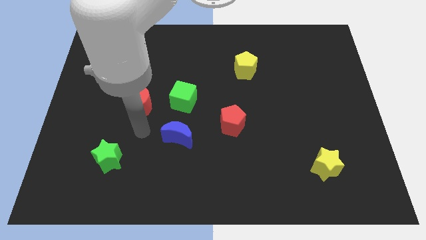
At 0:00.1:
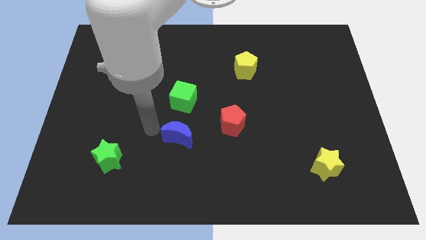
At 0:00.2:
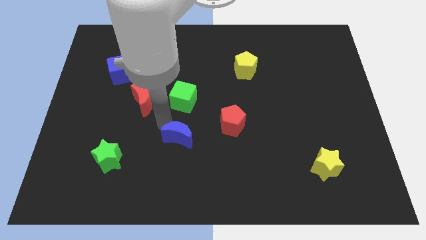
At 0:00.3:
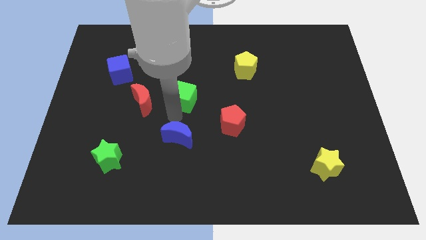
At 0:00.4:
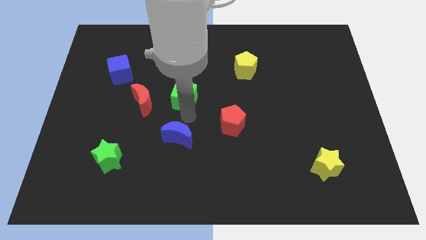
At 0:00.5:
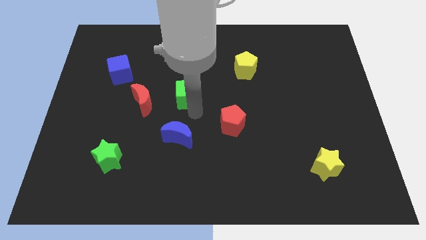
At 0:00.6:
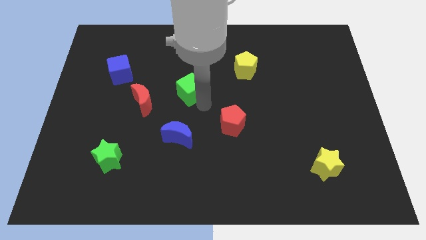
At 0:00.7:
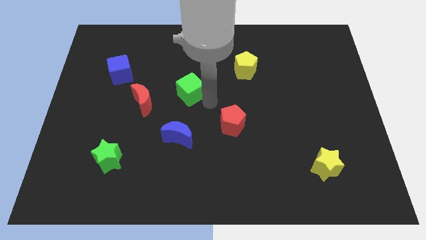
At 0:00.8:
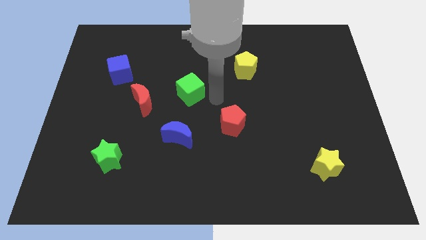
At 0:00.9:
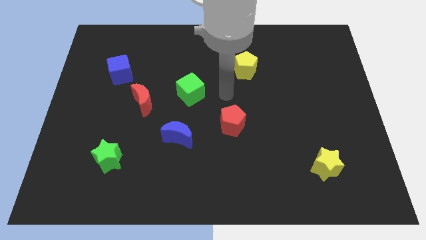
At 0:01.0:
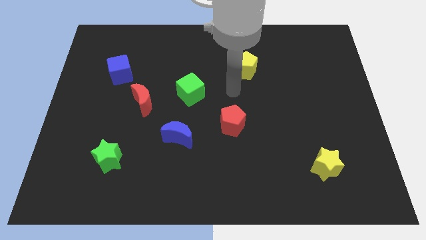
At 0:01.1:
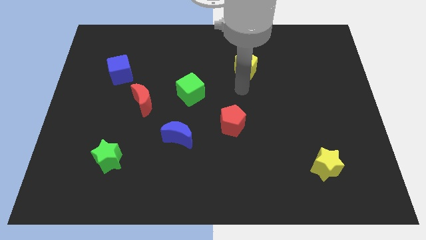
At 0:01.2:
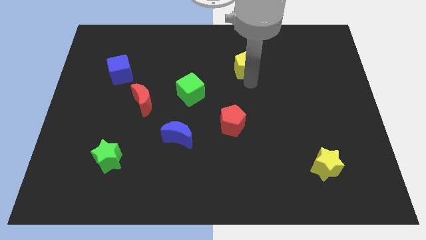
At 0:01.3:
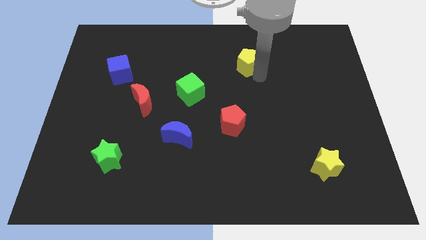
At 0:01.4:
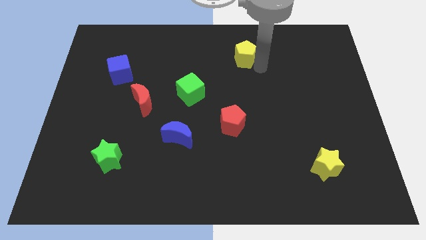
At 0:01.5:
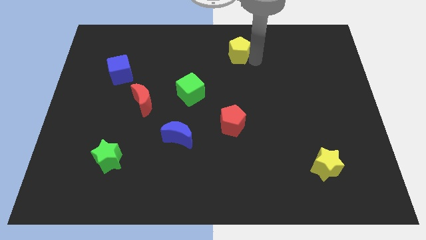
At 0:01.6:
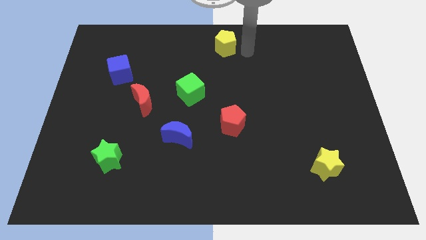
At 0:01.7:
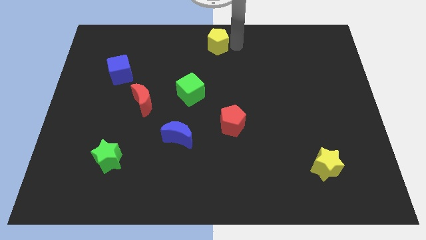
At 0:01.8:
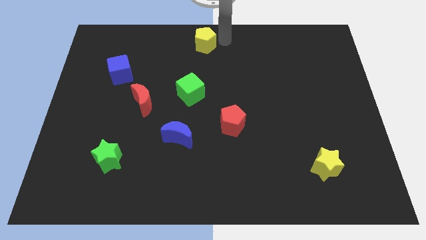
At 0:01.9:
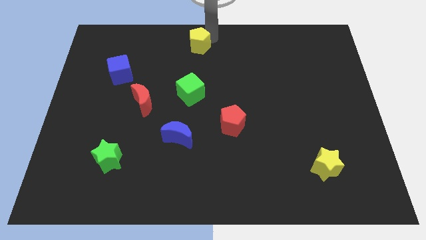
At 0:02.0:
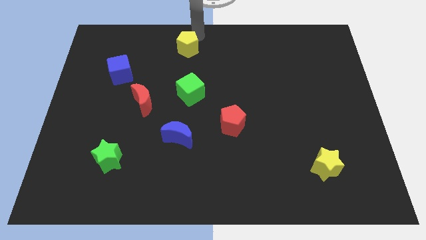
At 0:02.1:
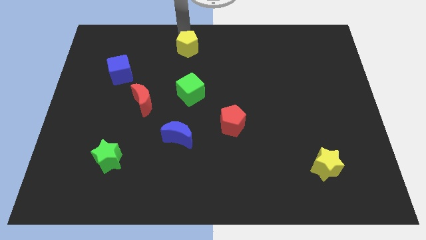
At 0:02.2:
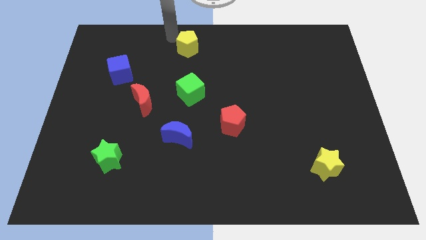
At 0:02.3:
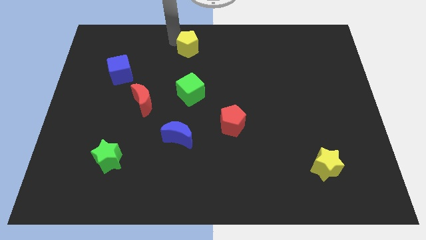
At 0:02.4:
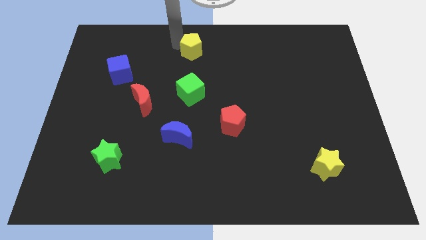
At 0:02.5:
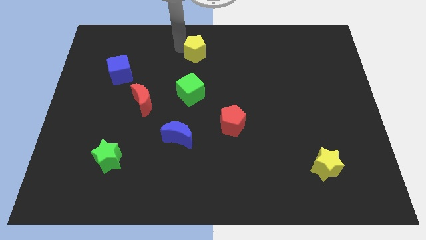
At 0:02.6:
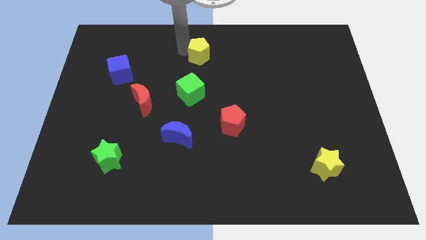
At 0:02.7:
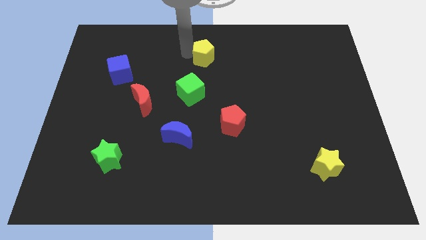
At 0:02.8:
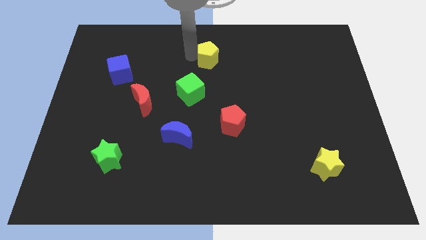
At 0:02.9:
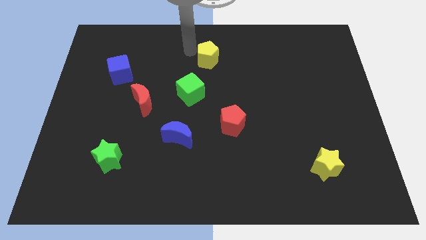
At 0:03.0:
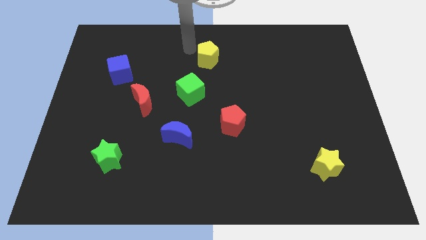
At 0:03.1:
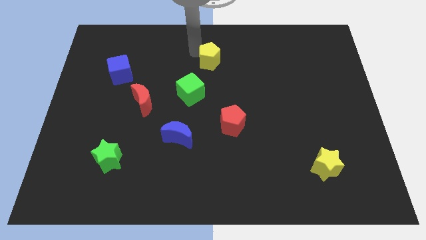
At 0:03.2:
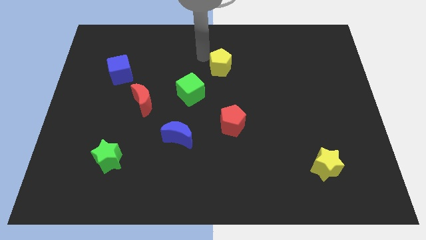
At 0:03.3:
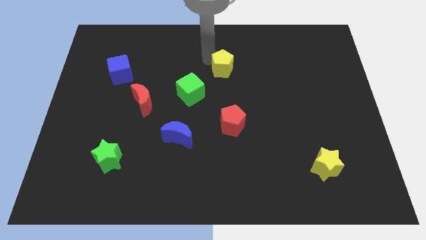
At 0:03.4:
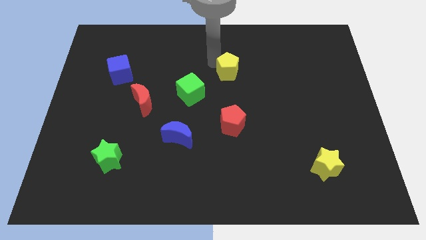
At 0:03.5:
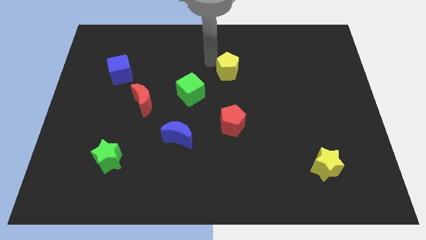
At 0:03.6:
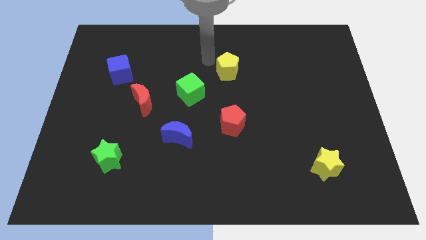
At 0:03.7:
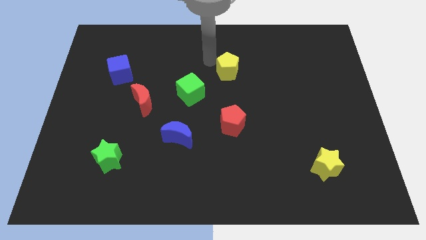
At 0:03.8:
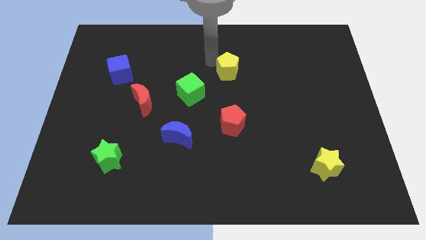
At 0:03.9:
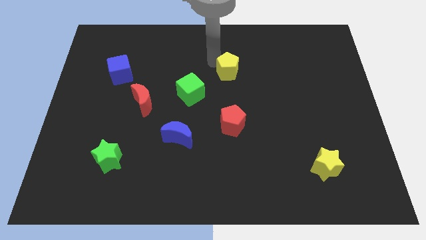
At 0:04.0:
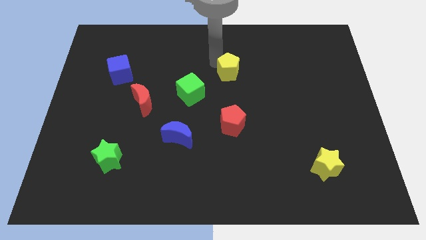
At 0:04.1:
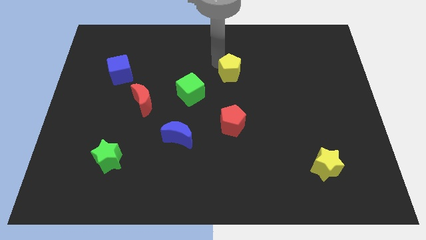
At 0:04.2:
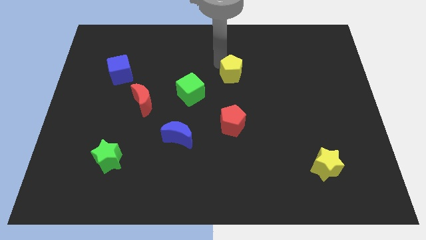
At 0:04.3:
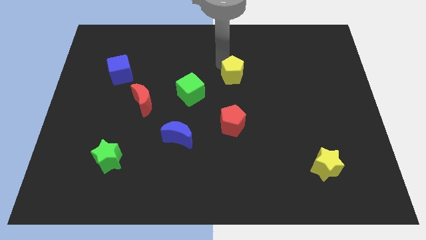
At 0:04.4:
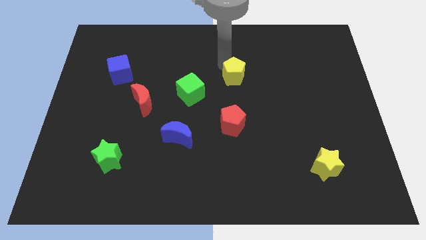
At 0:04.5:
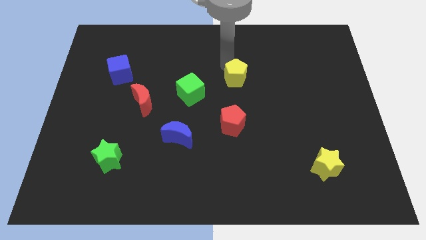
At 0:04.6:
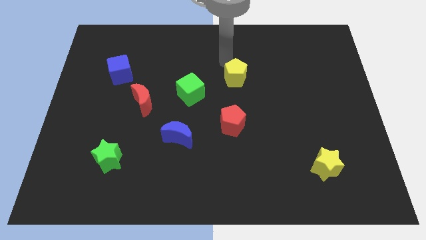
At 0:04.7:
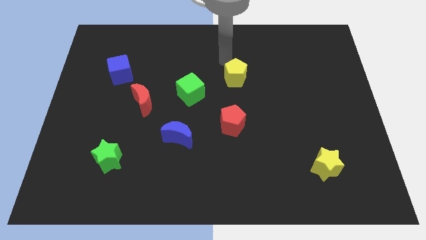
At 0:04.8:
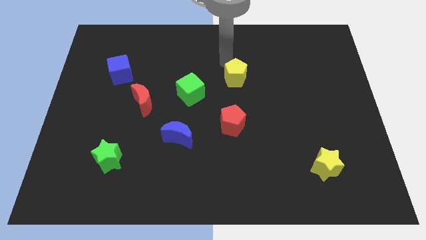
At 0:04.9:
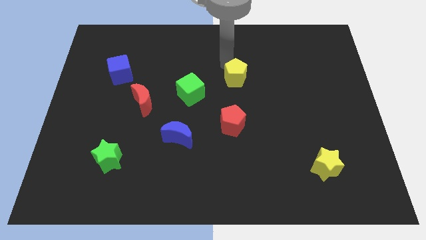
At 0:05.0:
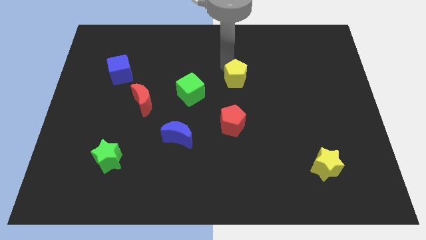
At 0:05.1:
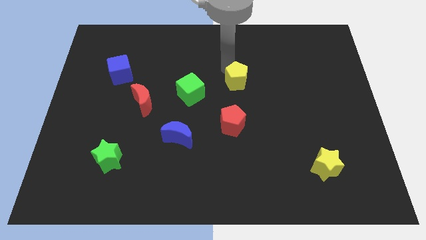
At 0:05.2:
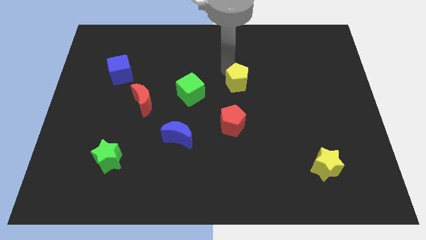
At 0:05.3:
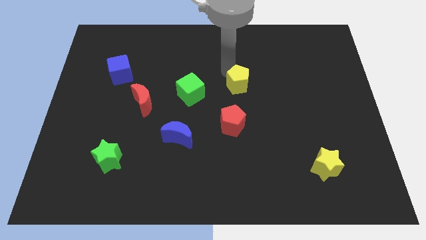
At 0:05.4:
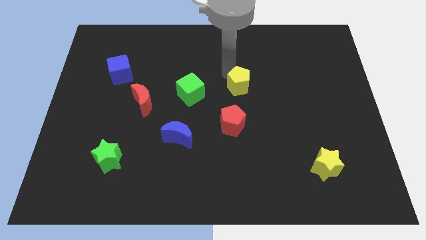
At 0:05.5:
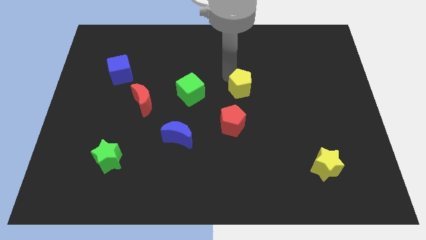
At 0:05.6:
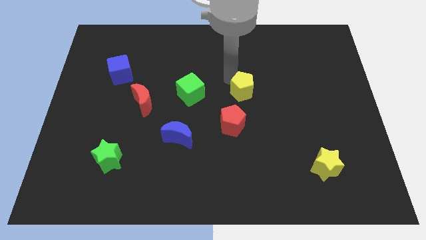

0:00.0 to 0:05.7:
push the yellow pentagon somewhat downwards

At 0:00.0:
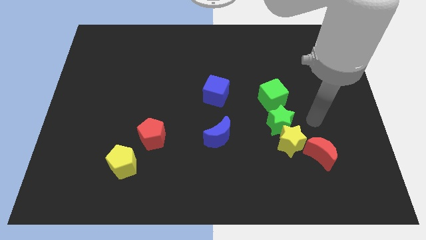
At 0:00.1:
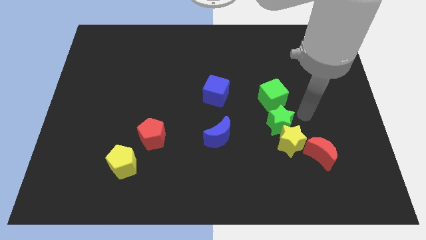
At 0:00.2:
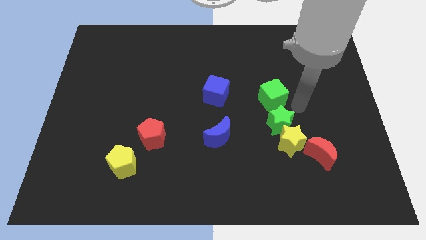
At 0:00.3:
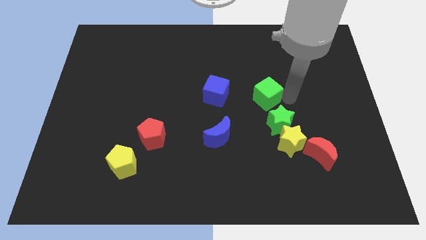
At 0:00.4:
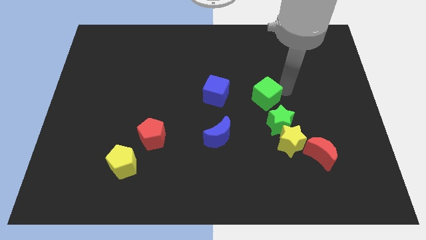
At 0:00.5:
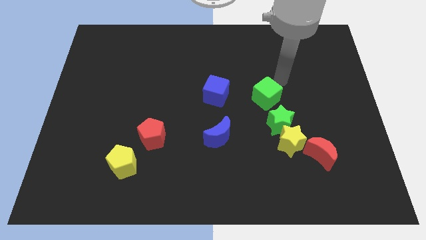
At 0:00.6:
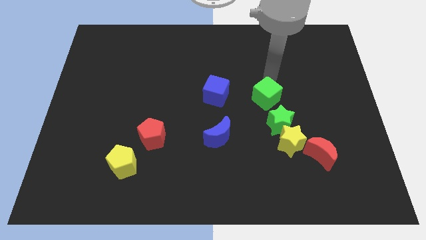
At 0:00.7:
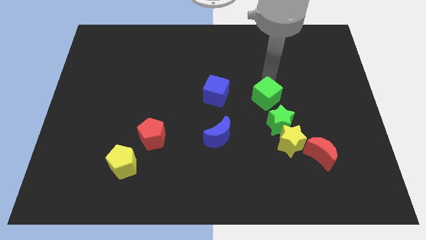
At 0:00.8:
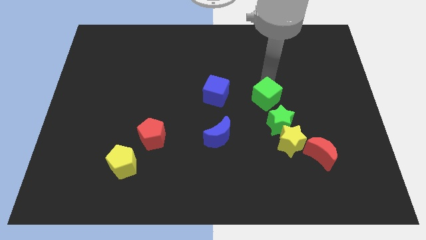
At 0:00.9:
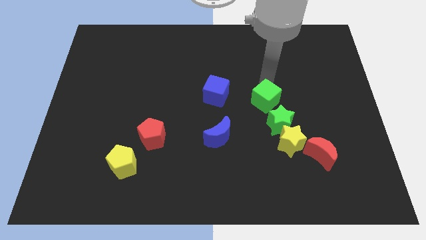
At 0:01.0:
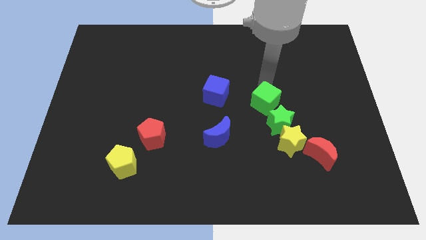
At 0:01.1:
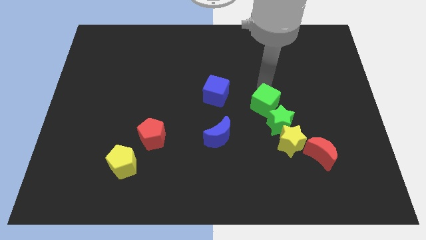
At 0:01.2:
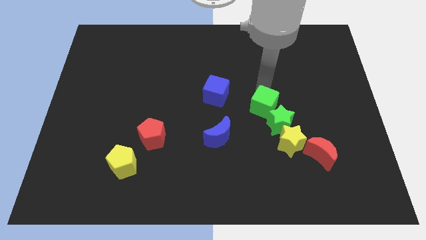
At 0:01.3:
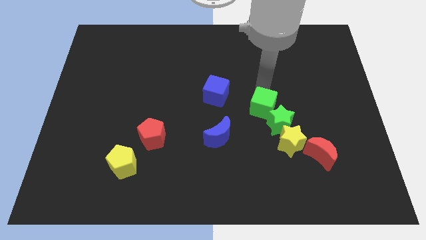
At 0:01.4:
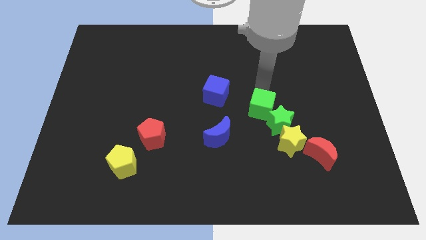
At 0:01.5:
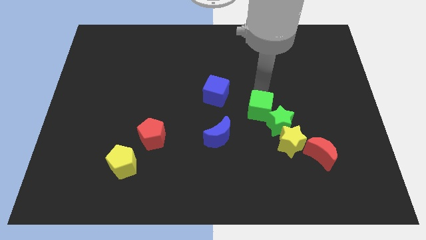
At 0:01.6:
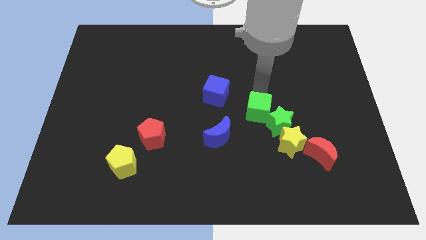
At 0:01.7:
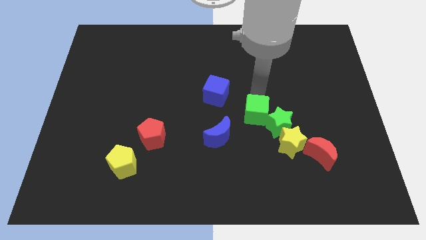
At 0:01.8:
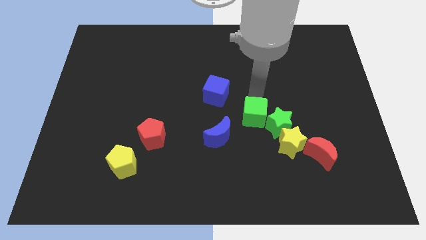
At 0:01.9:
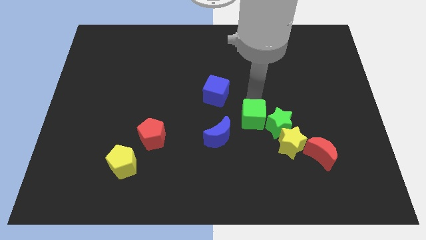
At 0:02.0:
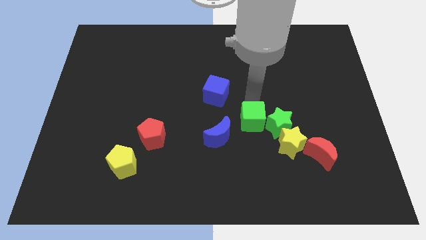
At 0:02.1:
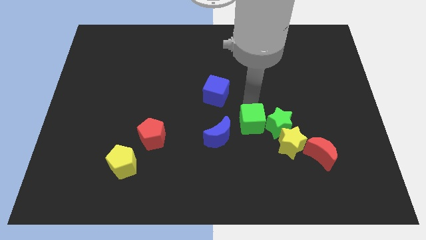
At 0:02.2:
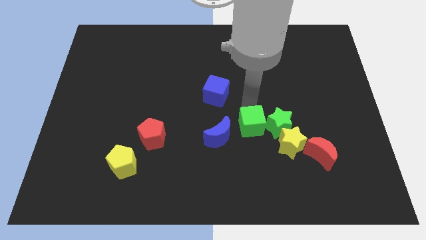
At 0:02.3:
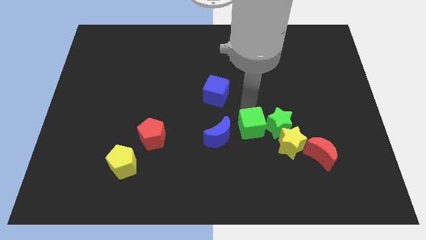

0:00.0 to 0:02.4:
move the green cube somewhat downwards
